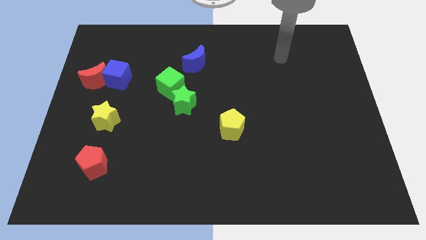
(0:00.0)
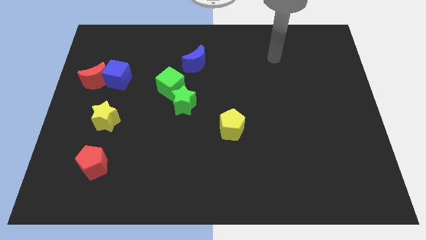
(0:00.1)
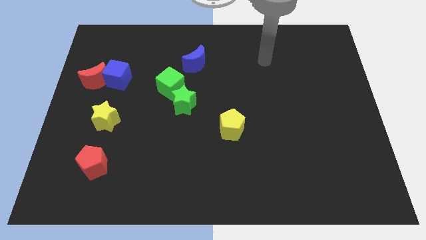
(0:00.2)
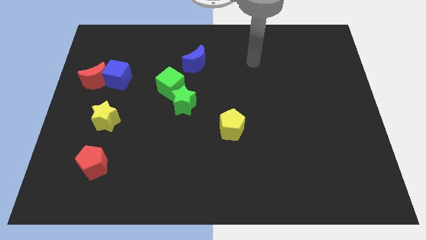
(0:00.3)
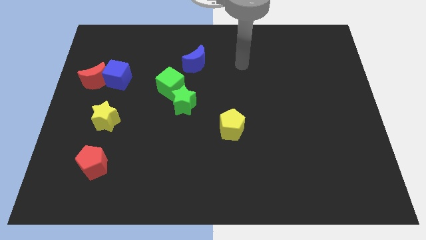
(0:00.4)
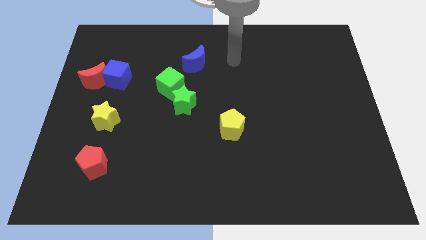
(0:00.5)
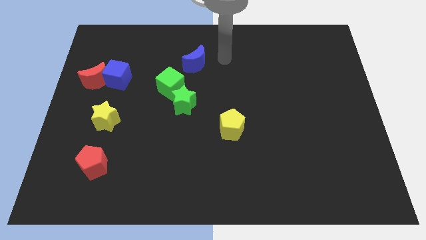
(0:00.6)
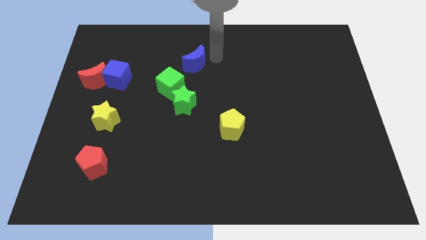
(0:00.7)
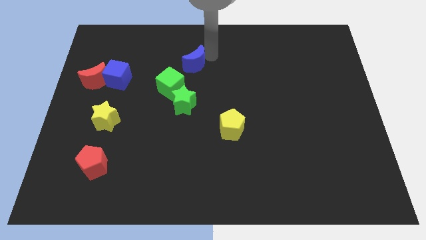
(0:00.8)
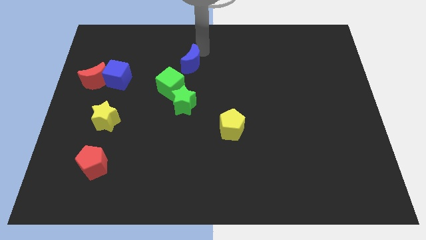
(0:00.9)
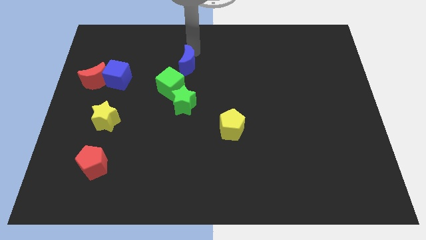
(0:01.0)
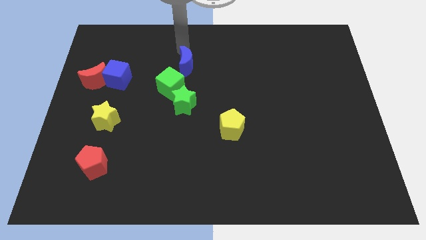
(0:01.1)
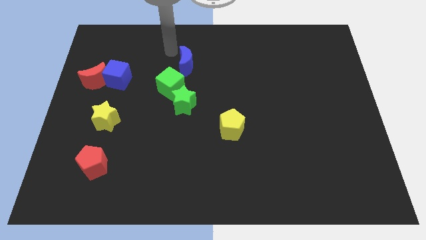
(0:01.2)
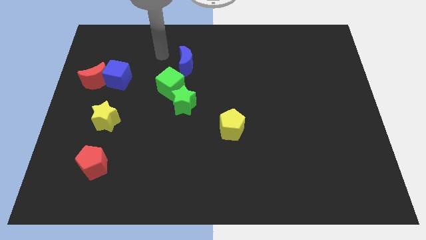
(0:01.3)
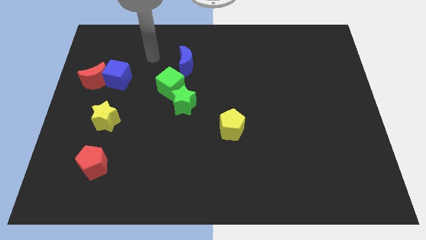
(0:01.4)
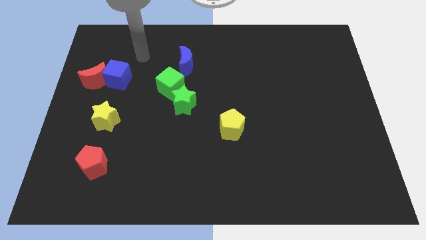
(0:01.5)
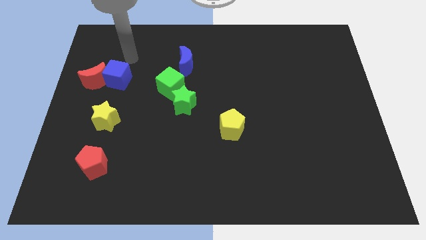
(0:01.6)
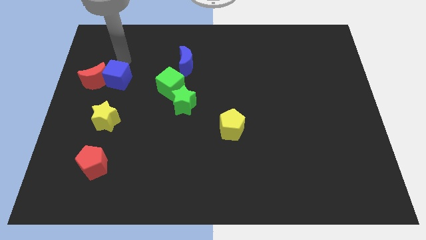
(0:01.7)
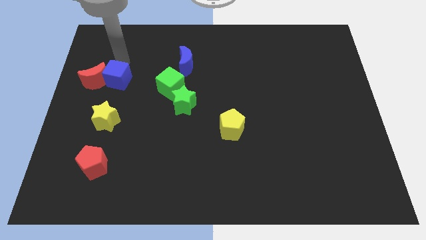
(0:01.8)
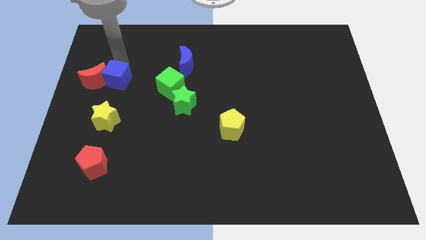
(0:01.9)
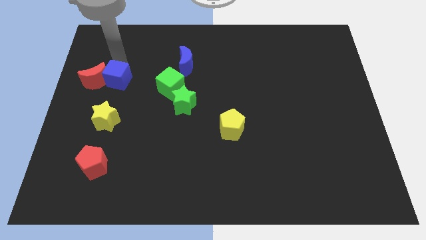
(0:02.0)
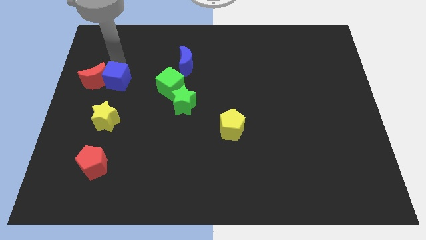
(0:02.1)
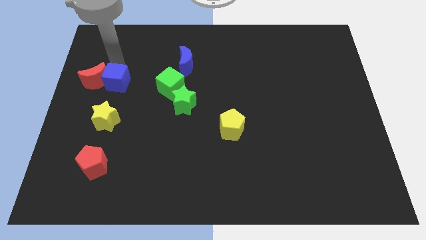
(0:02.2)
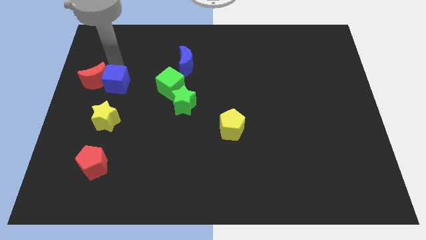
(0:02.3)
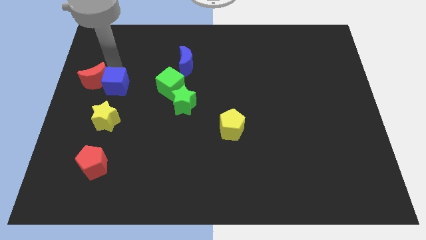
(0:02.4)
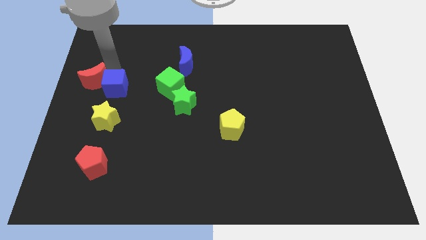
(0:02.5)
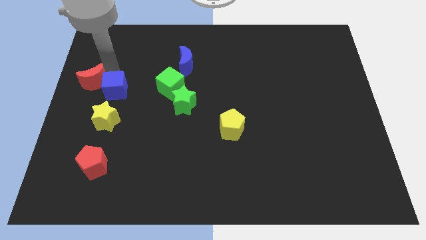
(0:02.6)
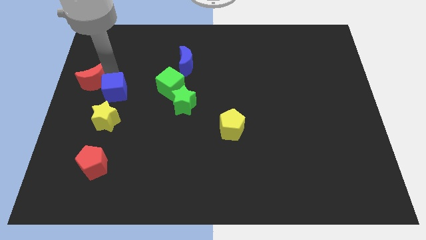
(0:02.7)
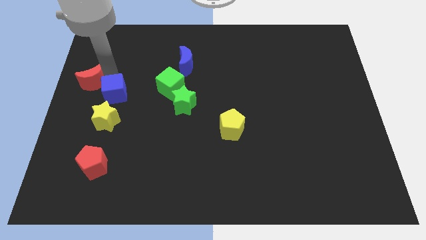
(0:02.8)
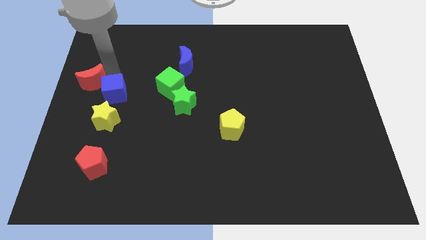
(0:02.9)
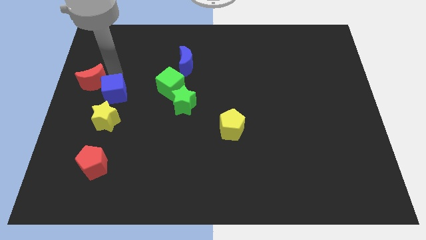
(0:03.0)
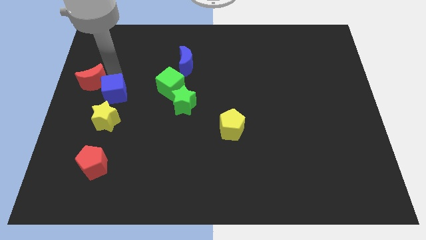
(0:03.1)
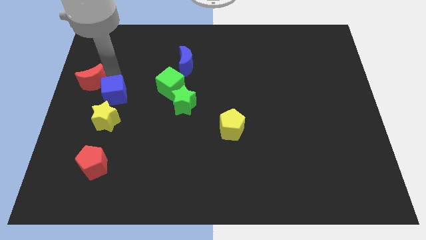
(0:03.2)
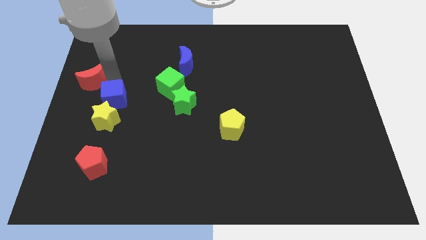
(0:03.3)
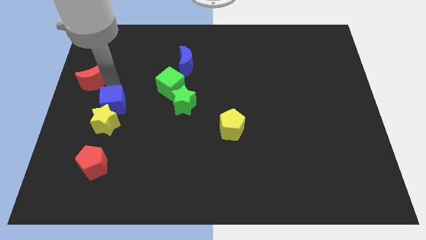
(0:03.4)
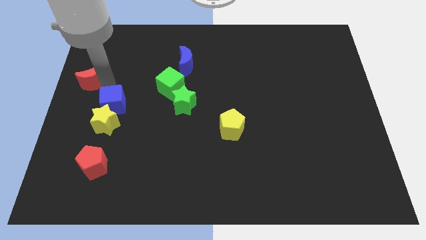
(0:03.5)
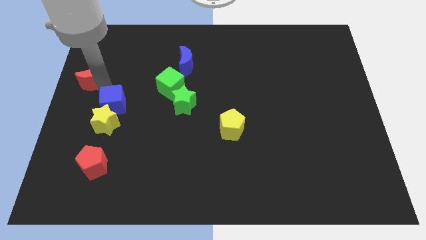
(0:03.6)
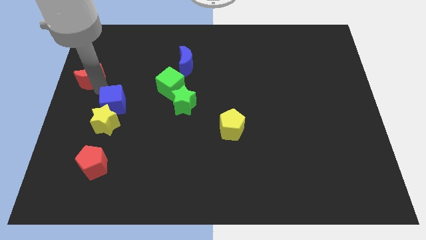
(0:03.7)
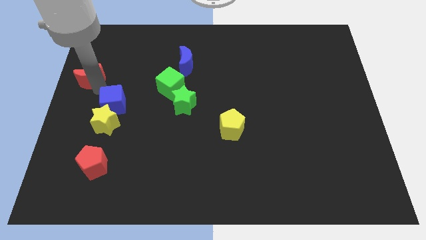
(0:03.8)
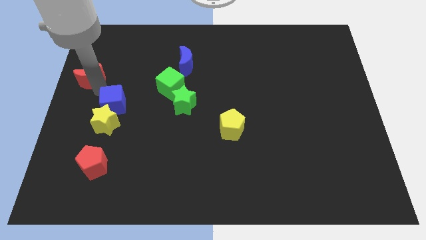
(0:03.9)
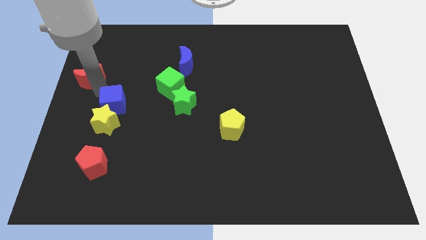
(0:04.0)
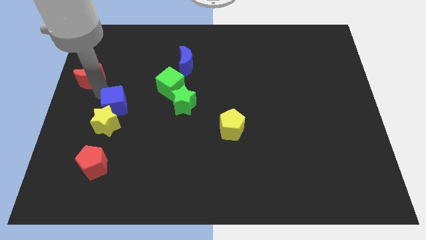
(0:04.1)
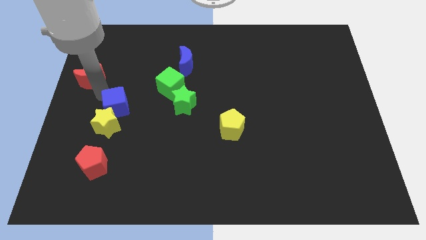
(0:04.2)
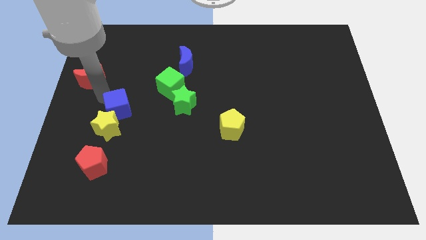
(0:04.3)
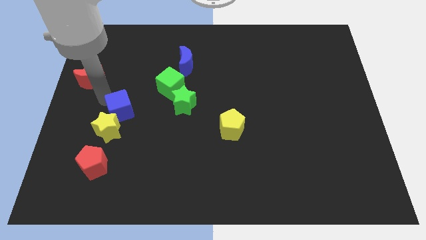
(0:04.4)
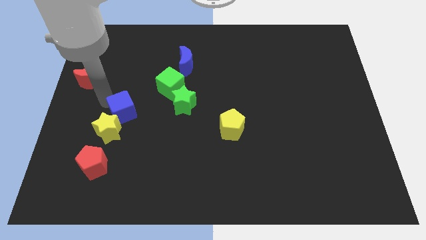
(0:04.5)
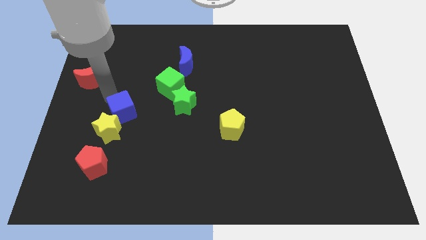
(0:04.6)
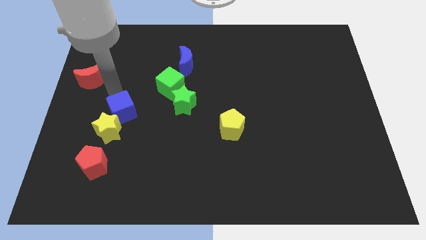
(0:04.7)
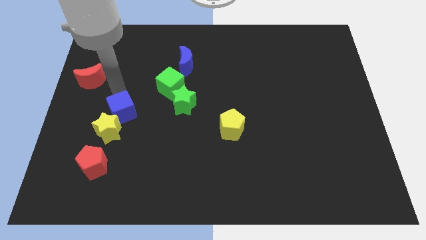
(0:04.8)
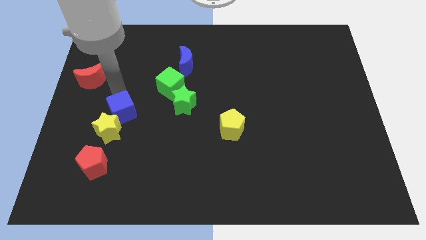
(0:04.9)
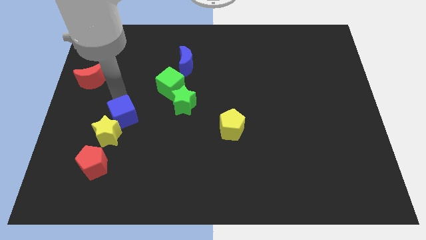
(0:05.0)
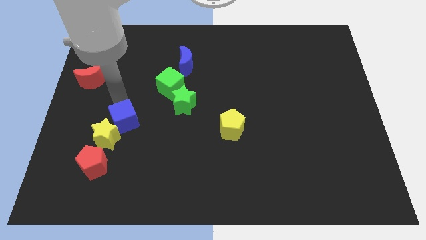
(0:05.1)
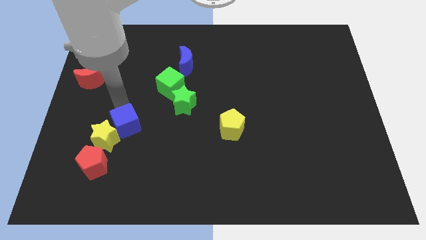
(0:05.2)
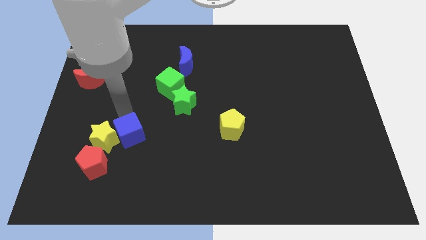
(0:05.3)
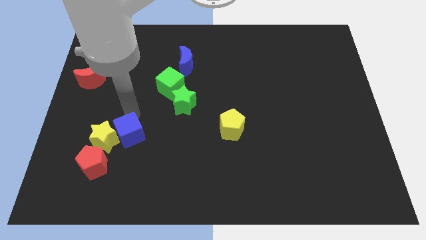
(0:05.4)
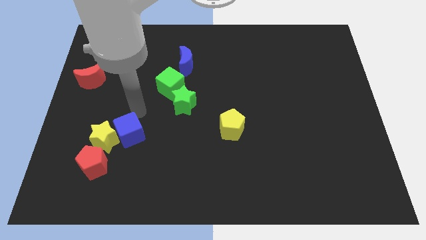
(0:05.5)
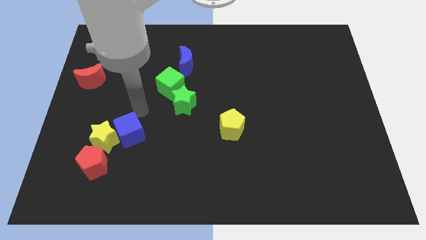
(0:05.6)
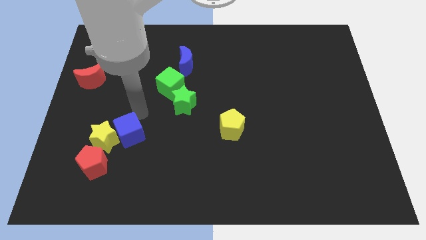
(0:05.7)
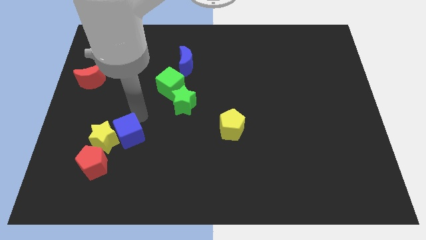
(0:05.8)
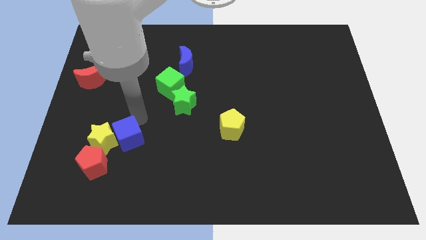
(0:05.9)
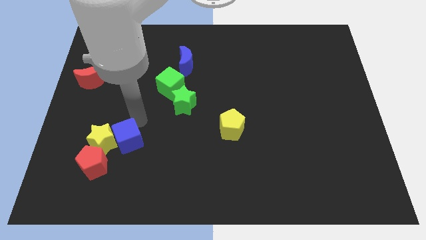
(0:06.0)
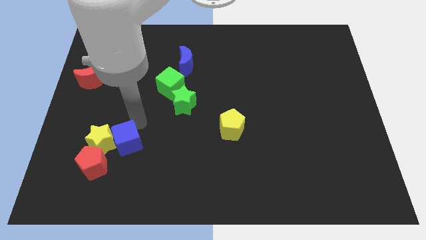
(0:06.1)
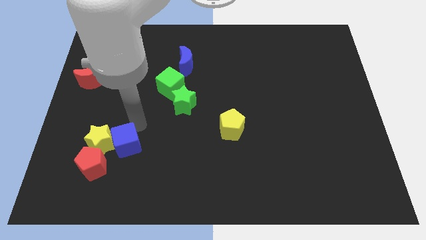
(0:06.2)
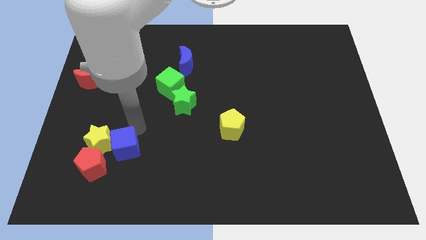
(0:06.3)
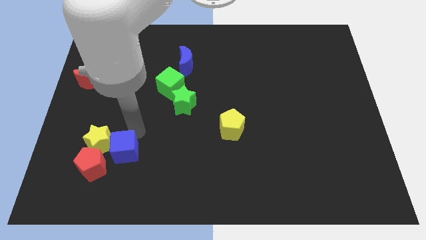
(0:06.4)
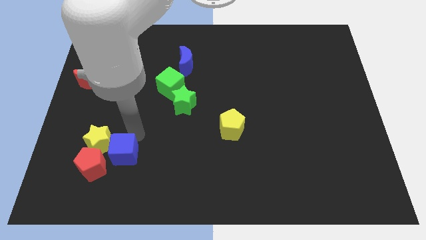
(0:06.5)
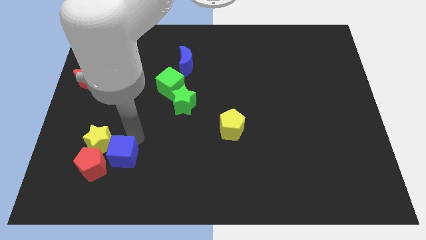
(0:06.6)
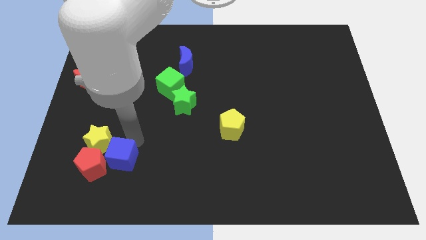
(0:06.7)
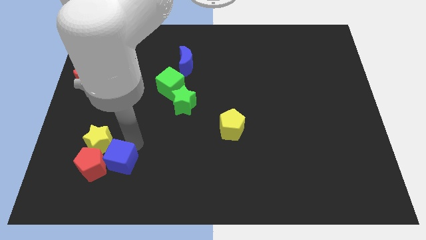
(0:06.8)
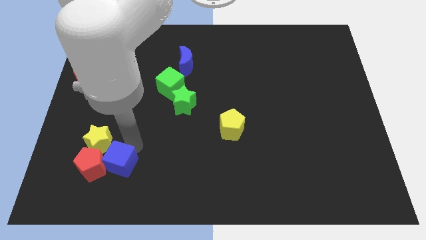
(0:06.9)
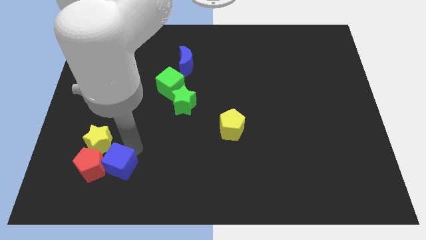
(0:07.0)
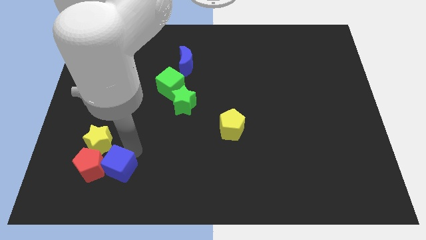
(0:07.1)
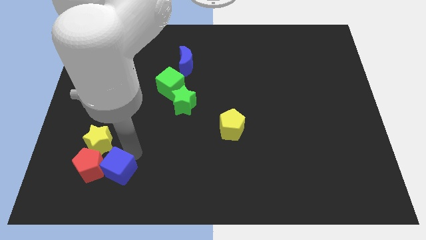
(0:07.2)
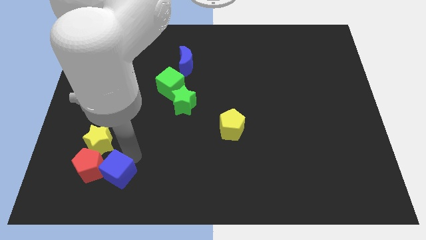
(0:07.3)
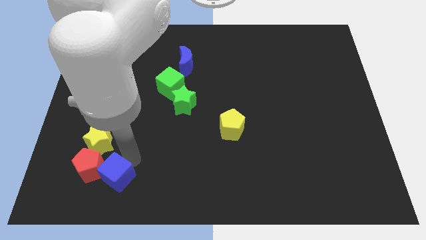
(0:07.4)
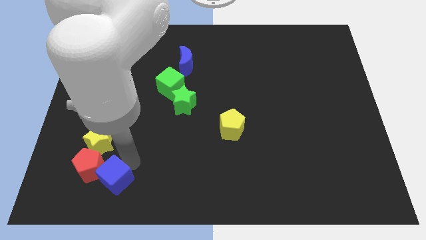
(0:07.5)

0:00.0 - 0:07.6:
slide the blue cube below the yellow star
